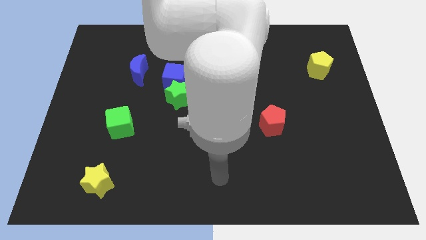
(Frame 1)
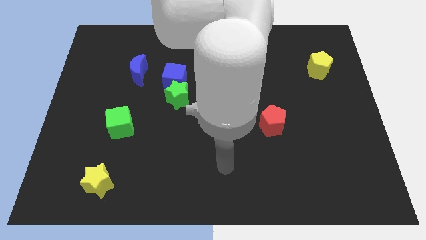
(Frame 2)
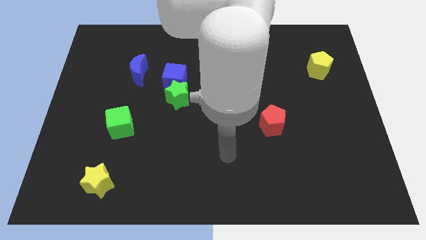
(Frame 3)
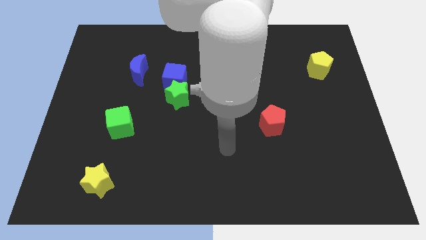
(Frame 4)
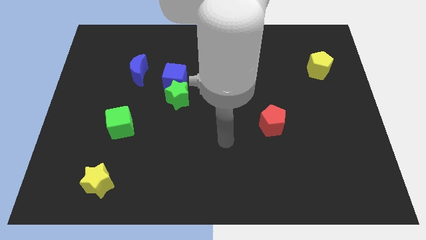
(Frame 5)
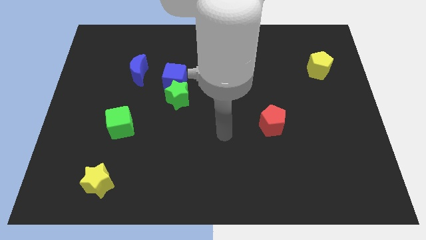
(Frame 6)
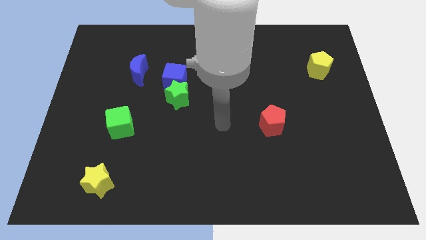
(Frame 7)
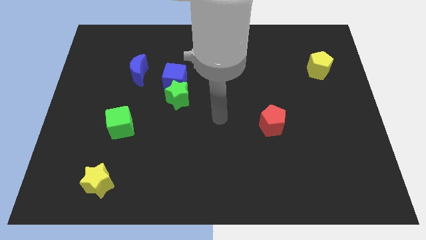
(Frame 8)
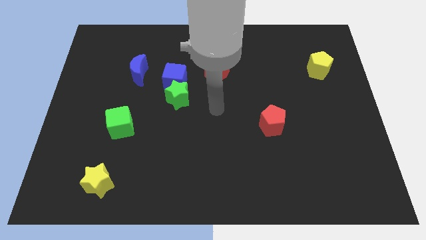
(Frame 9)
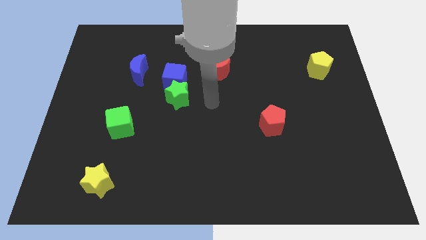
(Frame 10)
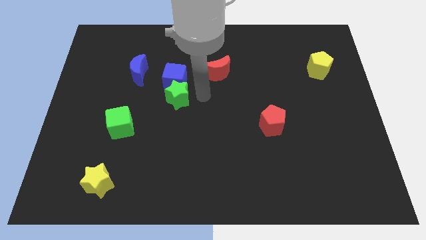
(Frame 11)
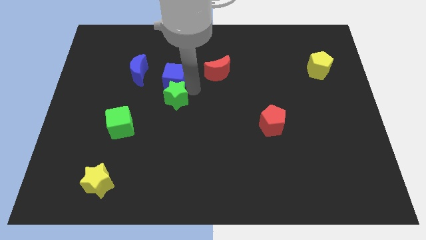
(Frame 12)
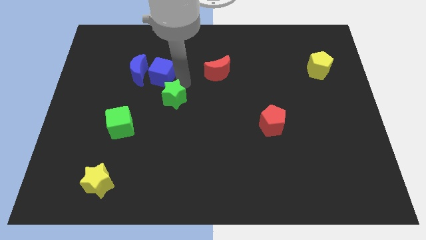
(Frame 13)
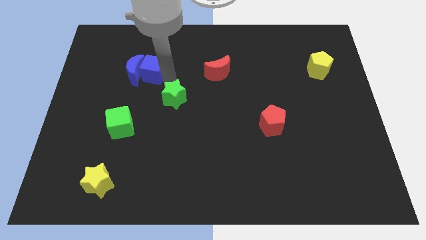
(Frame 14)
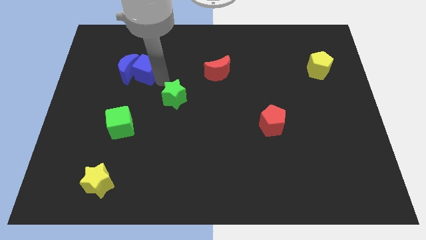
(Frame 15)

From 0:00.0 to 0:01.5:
separate the green star from the blue cube

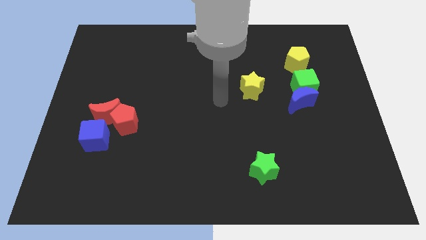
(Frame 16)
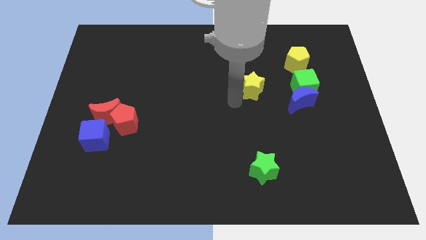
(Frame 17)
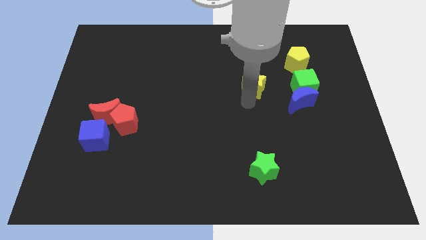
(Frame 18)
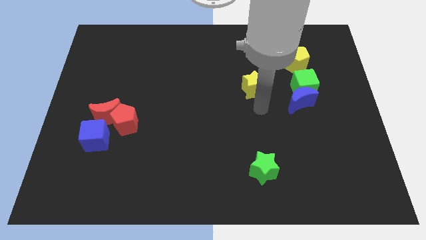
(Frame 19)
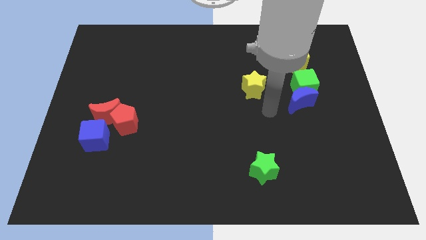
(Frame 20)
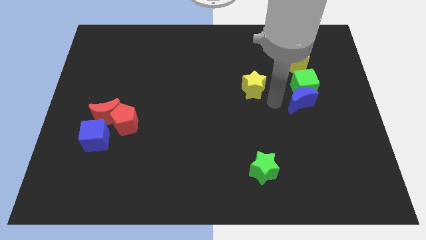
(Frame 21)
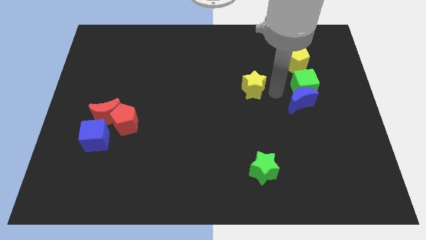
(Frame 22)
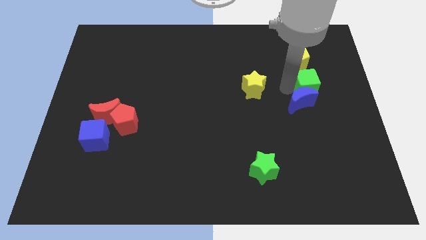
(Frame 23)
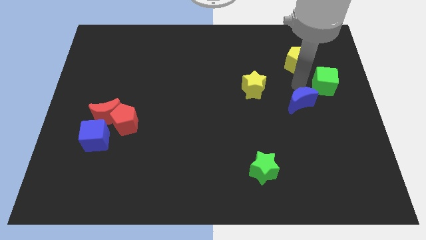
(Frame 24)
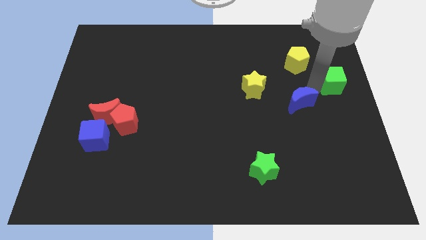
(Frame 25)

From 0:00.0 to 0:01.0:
separate the blue moon from the green cube

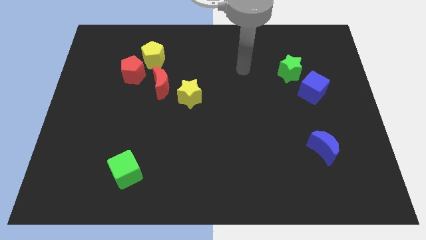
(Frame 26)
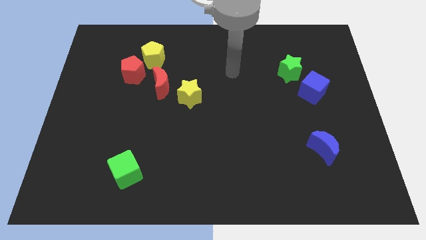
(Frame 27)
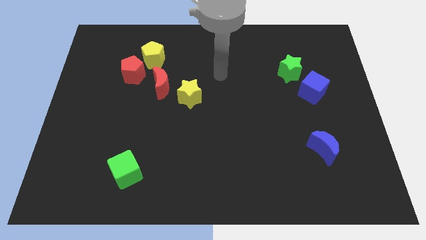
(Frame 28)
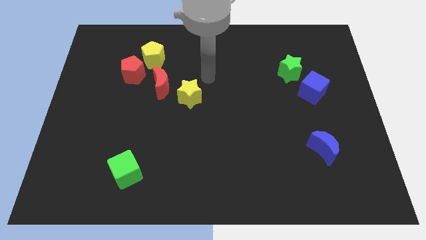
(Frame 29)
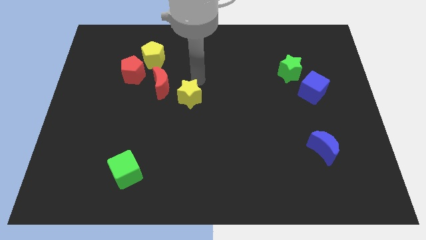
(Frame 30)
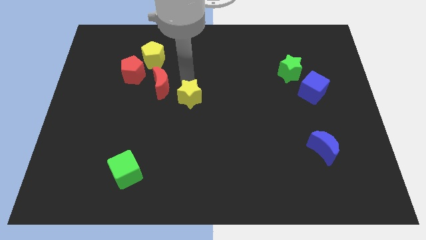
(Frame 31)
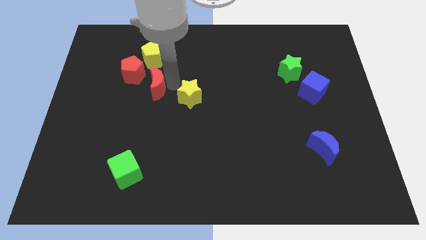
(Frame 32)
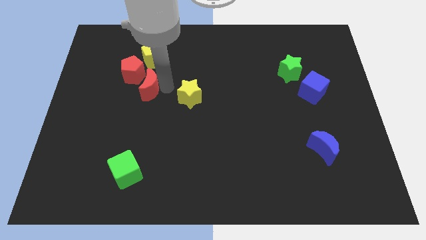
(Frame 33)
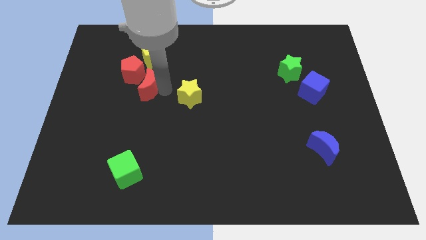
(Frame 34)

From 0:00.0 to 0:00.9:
pull the yellow star apart from the red moon

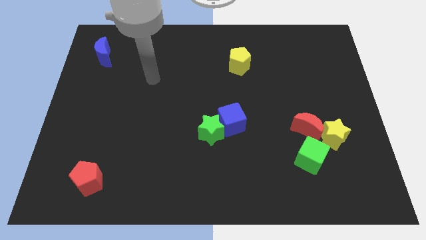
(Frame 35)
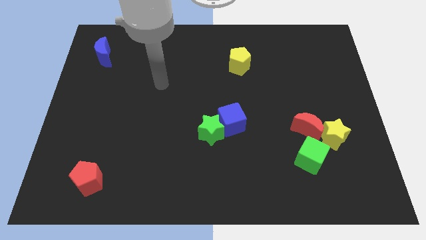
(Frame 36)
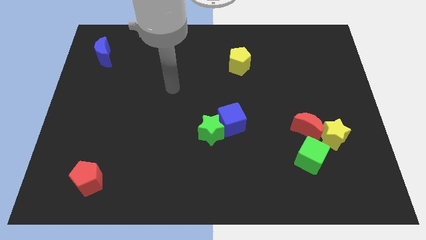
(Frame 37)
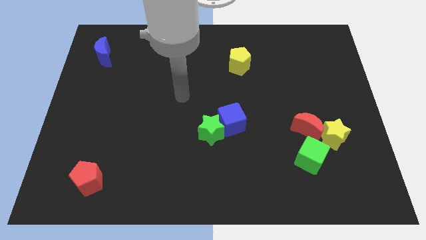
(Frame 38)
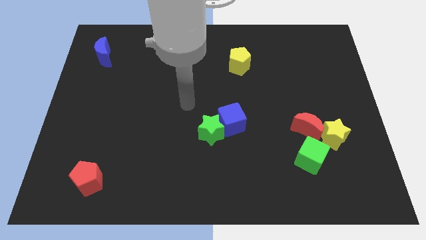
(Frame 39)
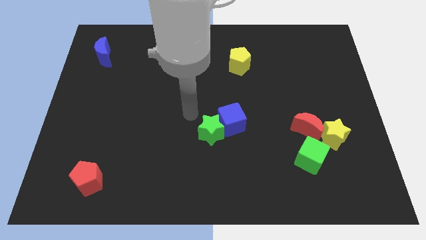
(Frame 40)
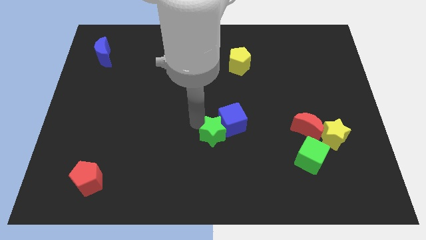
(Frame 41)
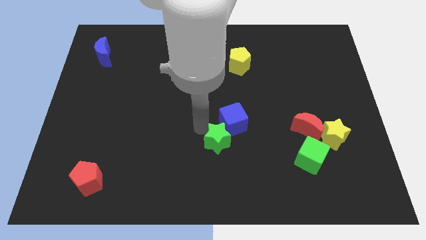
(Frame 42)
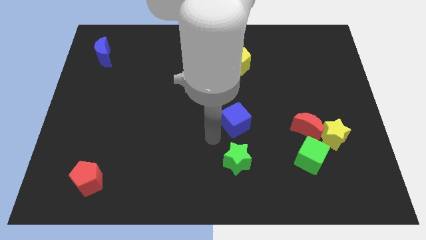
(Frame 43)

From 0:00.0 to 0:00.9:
separate the blue cube from the green star

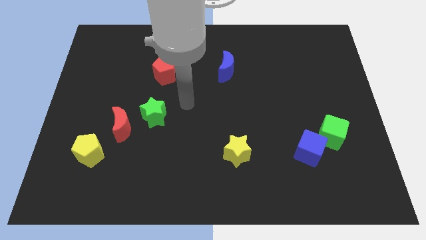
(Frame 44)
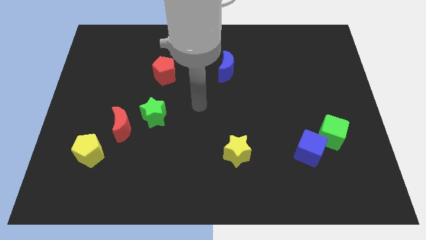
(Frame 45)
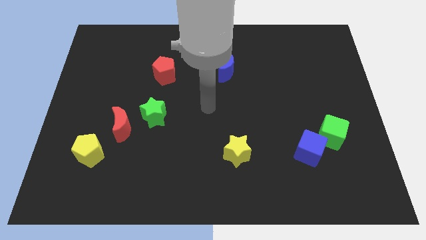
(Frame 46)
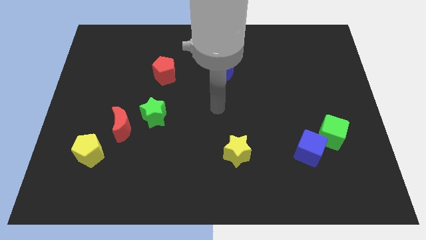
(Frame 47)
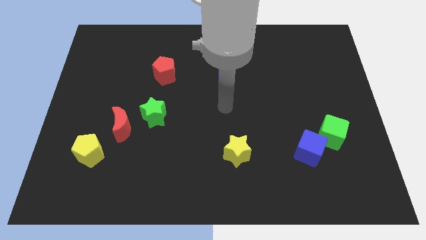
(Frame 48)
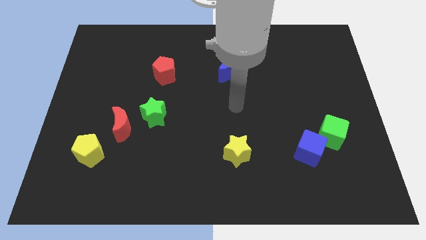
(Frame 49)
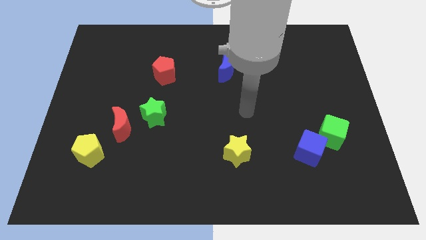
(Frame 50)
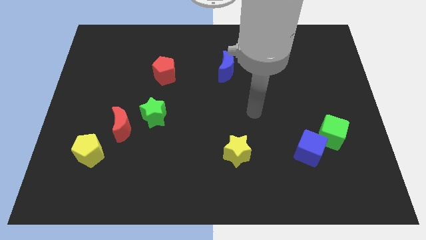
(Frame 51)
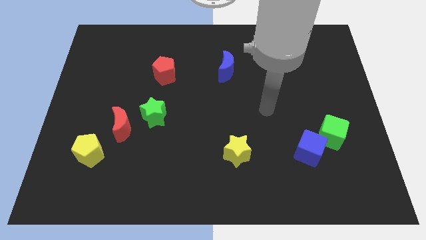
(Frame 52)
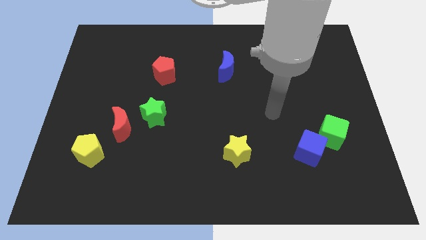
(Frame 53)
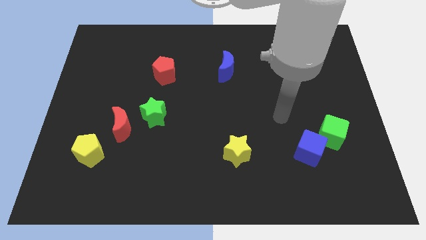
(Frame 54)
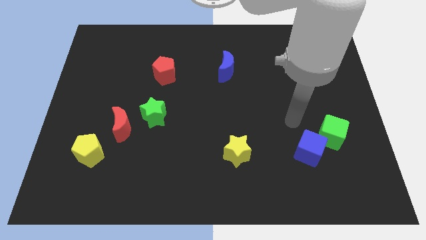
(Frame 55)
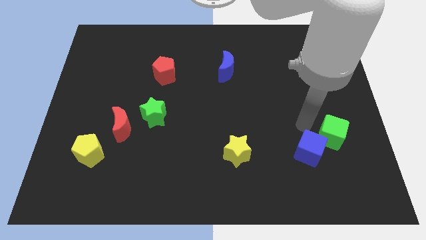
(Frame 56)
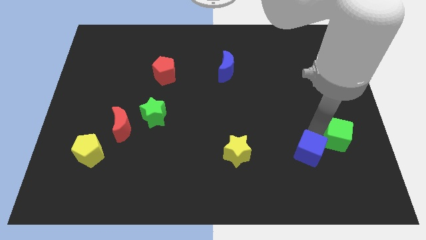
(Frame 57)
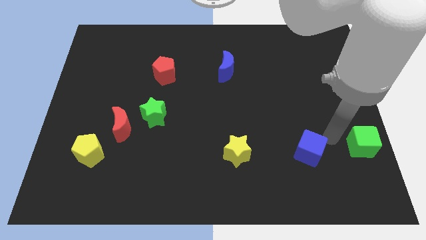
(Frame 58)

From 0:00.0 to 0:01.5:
separate the blue cube from the green cube

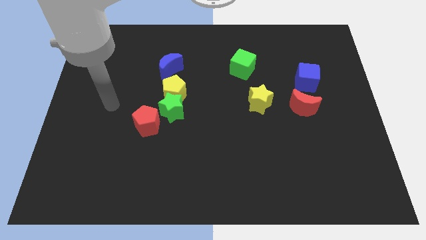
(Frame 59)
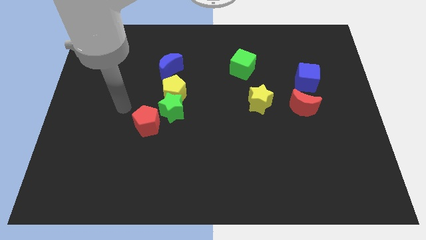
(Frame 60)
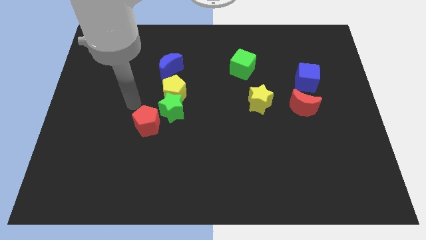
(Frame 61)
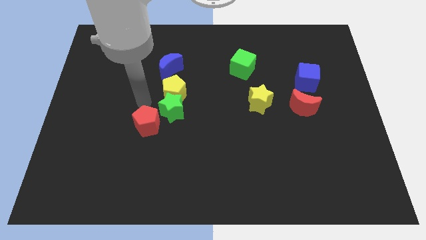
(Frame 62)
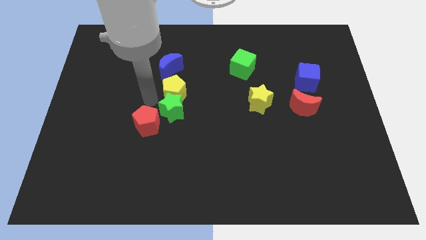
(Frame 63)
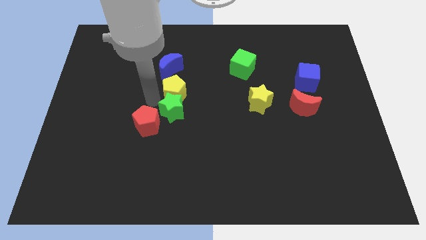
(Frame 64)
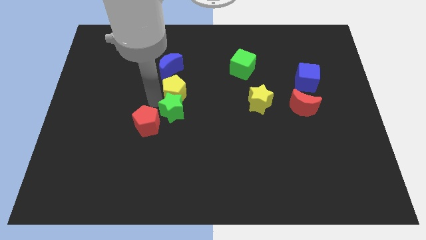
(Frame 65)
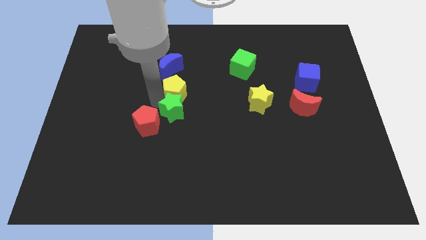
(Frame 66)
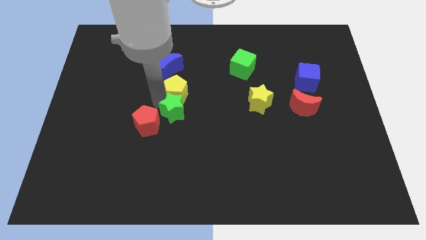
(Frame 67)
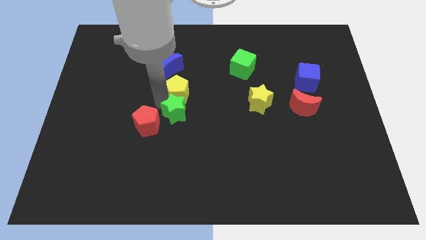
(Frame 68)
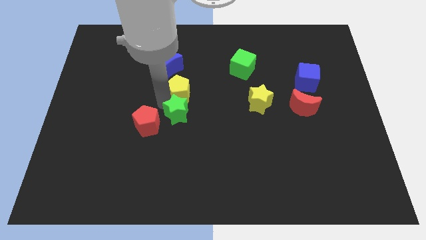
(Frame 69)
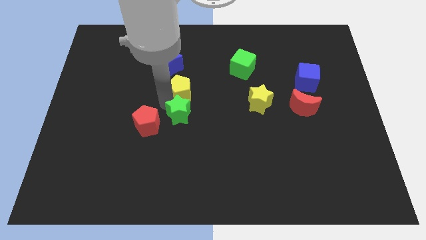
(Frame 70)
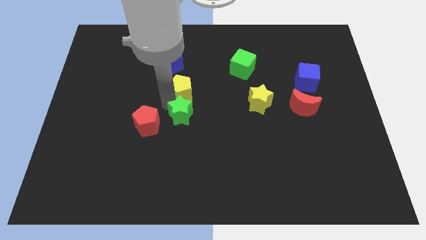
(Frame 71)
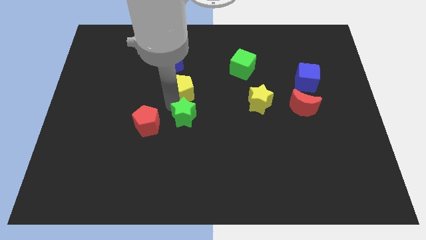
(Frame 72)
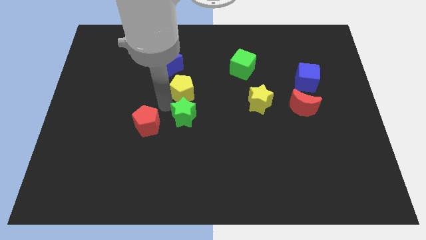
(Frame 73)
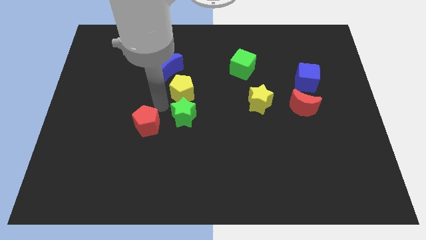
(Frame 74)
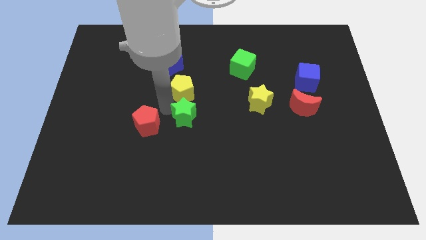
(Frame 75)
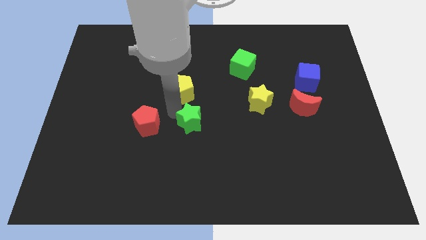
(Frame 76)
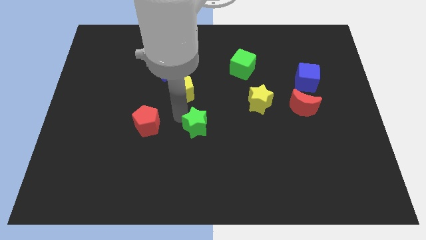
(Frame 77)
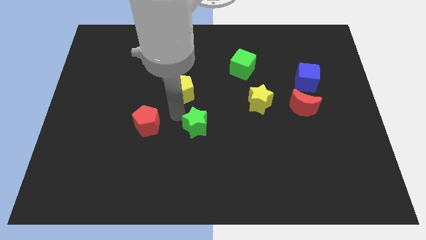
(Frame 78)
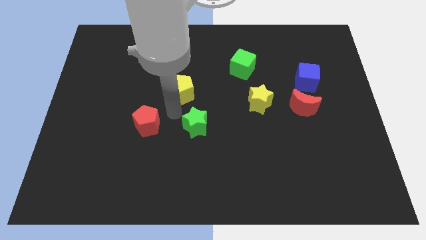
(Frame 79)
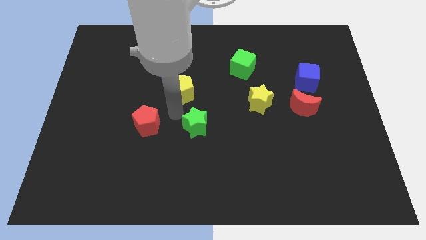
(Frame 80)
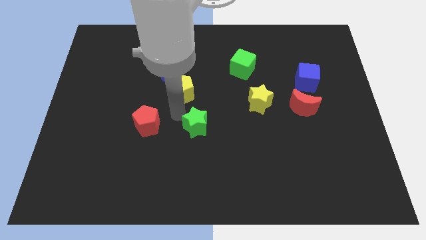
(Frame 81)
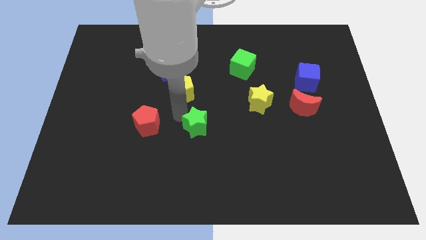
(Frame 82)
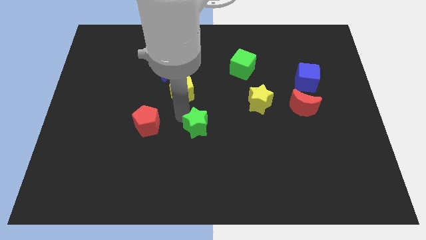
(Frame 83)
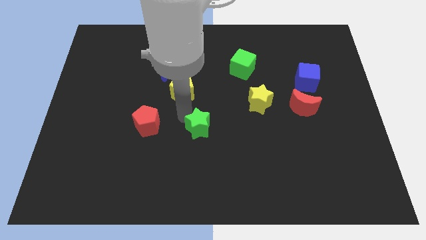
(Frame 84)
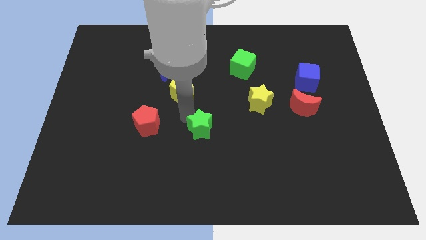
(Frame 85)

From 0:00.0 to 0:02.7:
move the green star away from the yellow pentagon and red pentagon

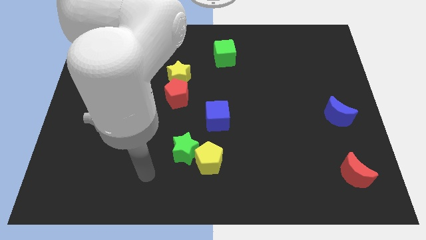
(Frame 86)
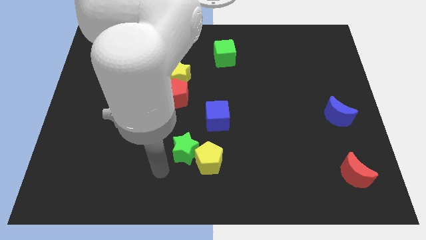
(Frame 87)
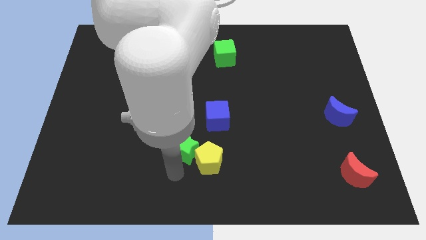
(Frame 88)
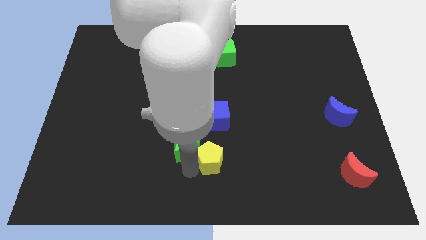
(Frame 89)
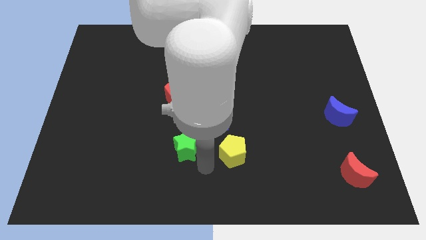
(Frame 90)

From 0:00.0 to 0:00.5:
pull the green star apart from the yellow pentagon

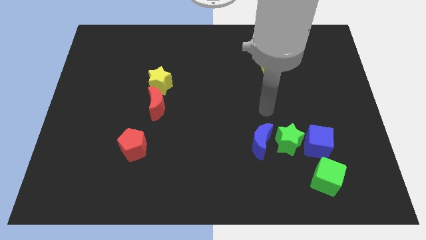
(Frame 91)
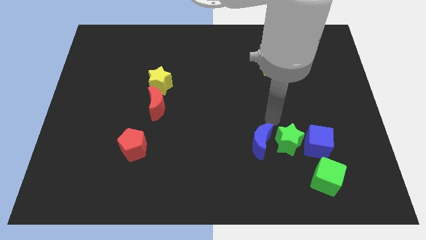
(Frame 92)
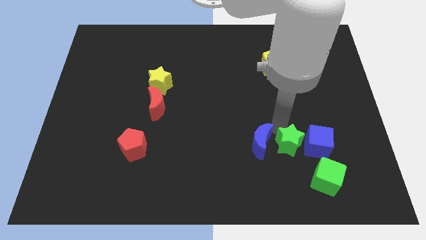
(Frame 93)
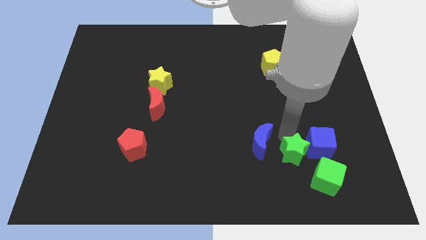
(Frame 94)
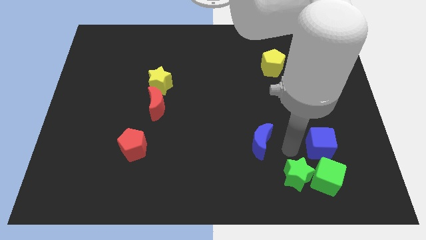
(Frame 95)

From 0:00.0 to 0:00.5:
move the blue moon away from the green star
